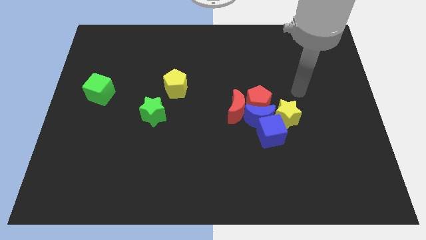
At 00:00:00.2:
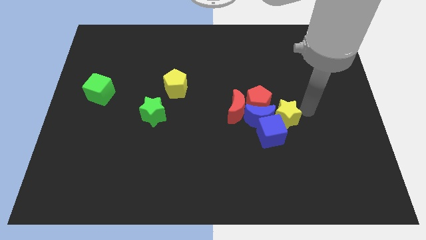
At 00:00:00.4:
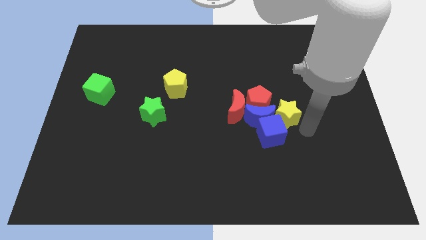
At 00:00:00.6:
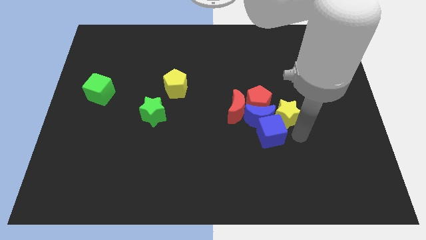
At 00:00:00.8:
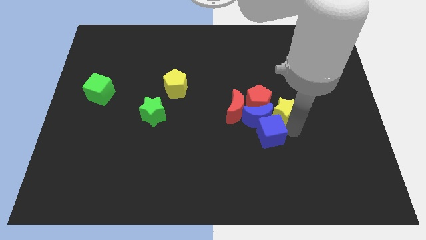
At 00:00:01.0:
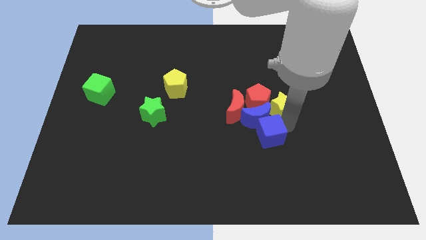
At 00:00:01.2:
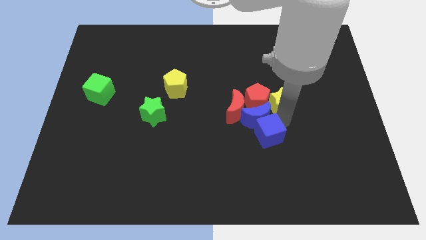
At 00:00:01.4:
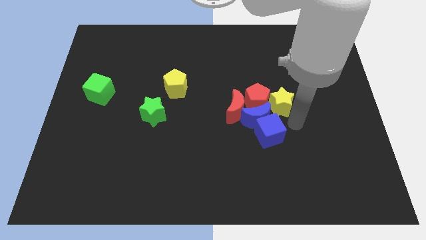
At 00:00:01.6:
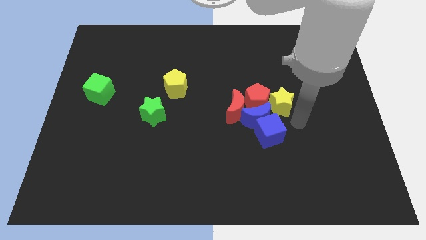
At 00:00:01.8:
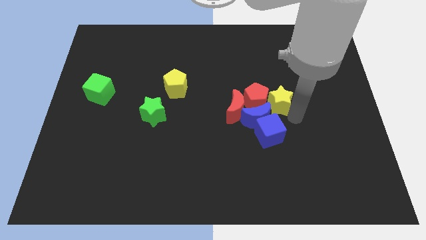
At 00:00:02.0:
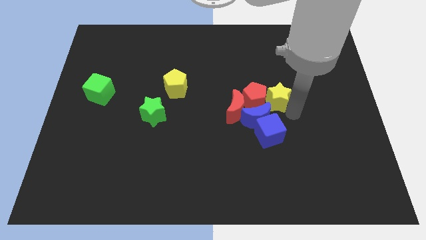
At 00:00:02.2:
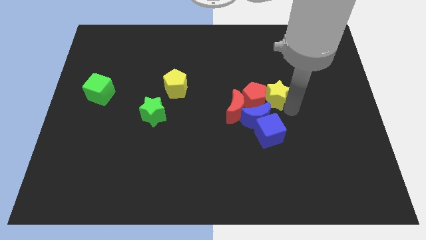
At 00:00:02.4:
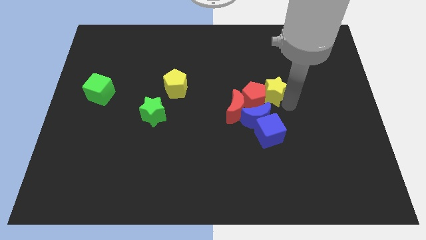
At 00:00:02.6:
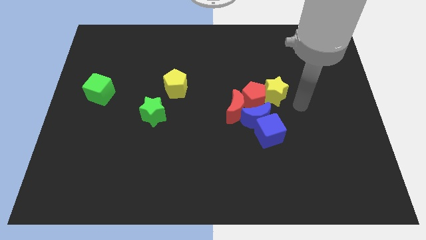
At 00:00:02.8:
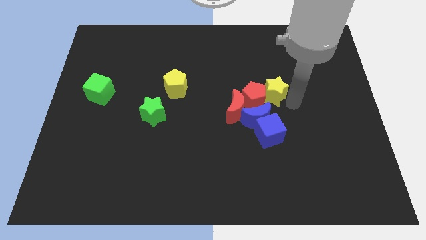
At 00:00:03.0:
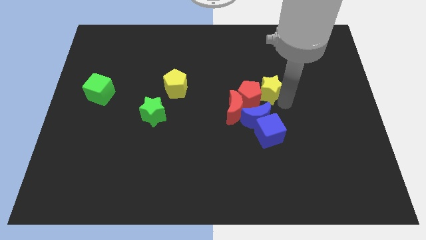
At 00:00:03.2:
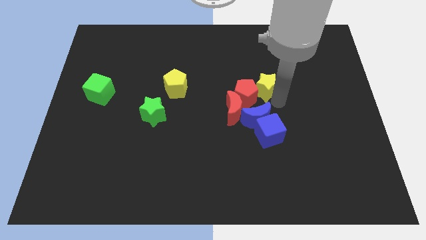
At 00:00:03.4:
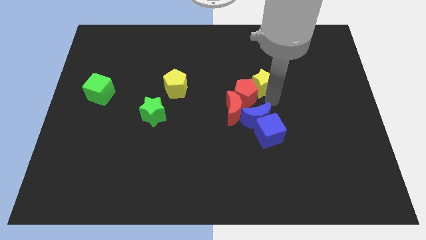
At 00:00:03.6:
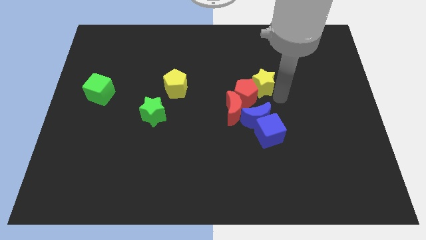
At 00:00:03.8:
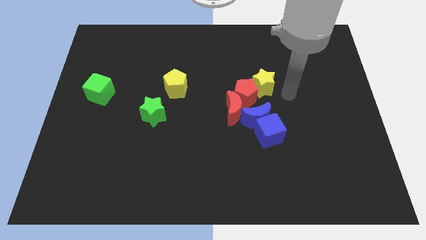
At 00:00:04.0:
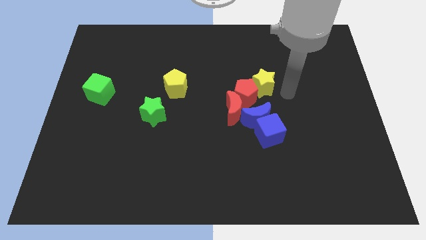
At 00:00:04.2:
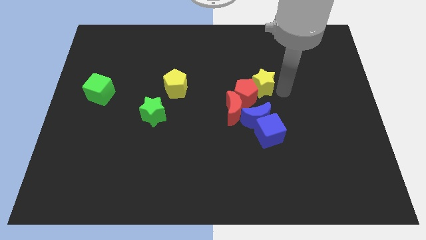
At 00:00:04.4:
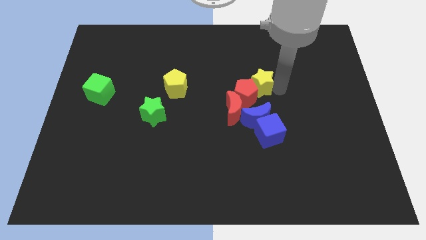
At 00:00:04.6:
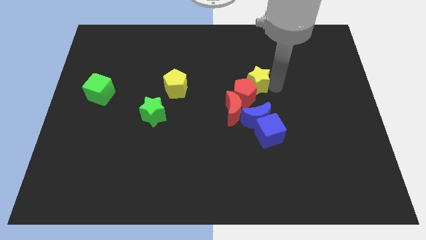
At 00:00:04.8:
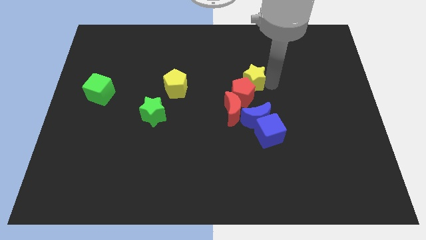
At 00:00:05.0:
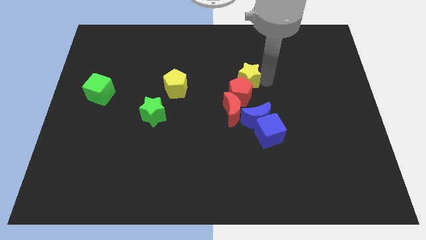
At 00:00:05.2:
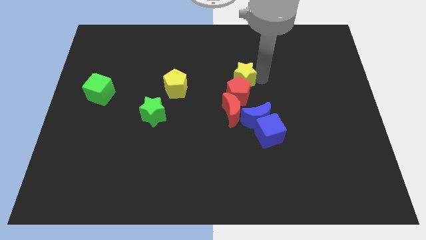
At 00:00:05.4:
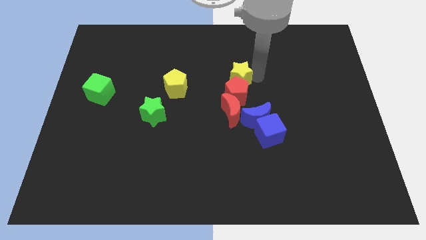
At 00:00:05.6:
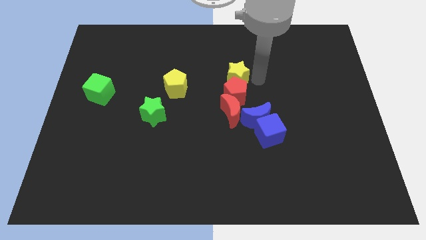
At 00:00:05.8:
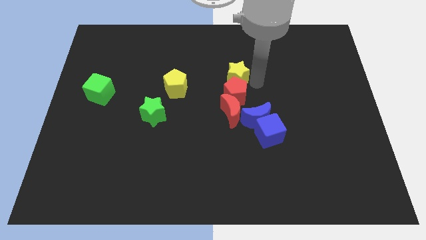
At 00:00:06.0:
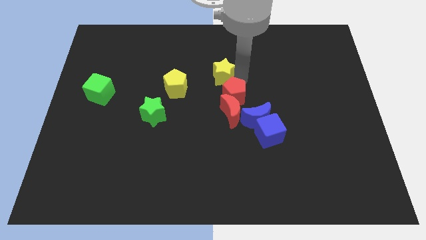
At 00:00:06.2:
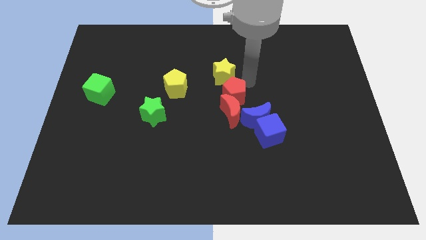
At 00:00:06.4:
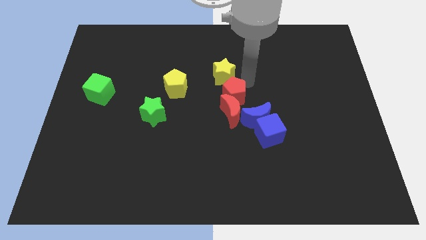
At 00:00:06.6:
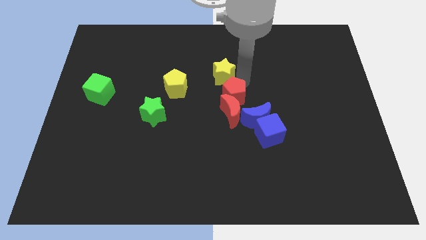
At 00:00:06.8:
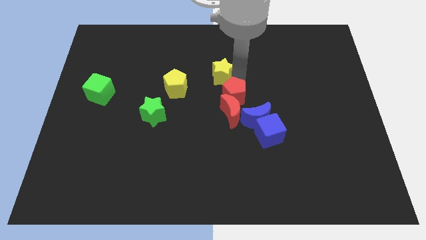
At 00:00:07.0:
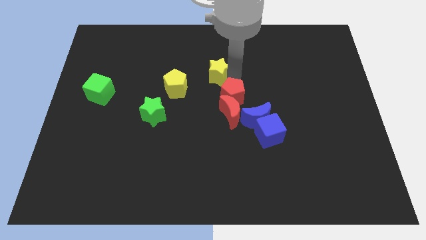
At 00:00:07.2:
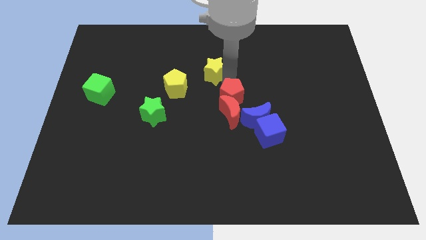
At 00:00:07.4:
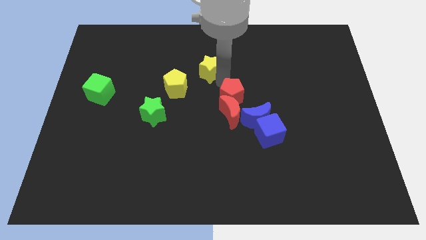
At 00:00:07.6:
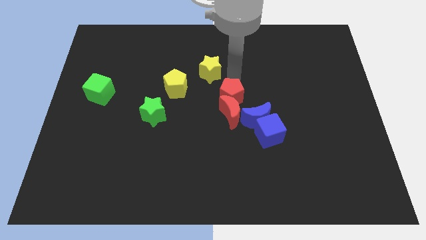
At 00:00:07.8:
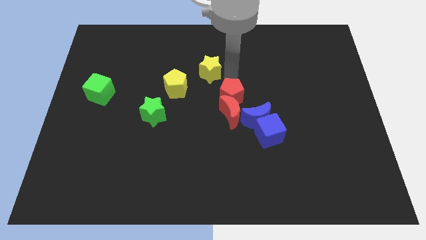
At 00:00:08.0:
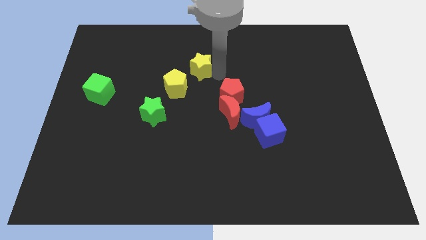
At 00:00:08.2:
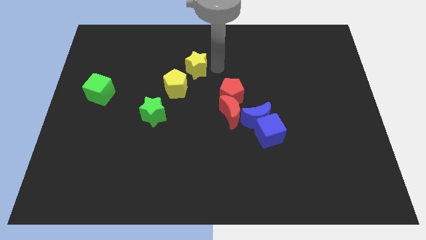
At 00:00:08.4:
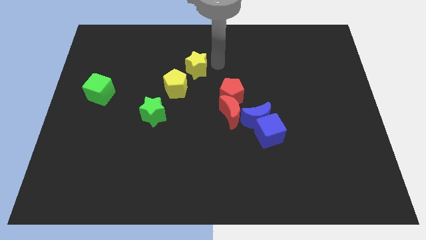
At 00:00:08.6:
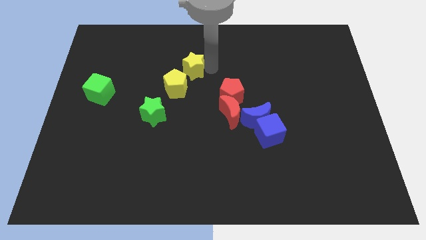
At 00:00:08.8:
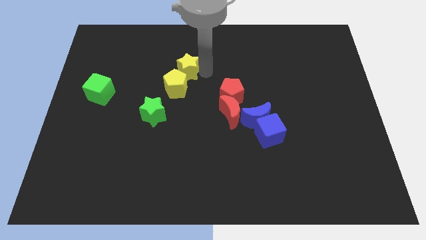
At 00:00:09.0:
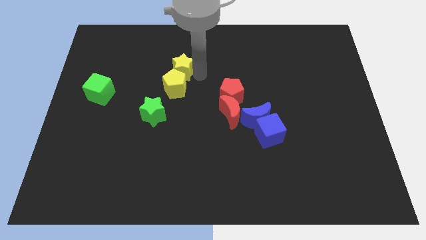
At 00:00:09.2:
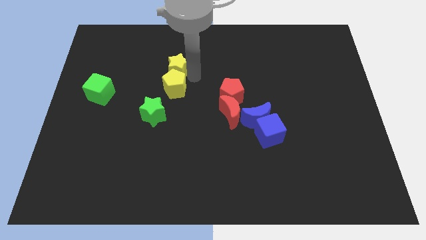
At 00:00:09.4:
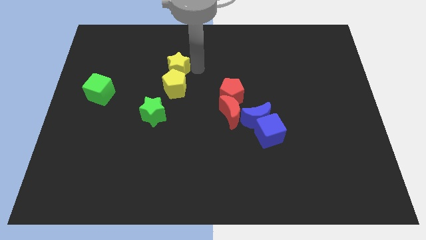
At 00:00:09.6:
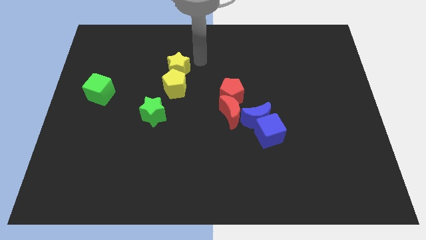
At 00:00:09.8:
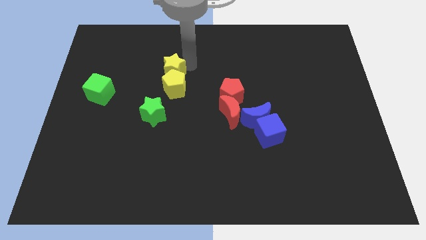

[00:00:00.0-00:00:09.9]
push the yellow star above the green star

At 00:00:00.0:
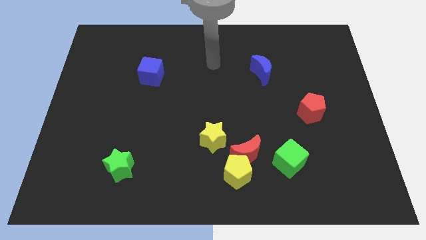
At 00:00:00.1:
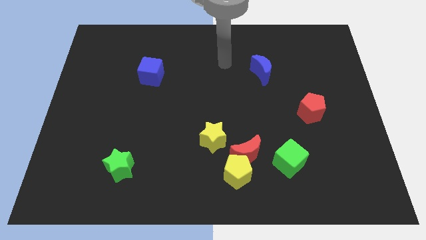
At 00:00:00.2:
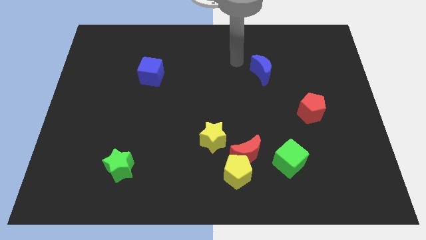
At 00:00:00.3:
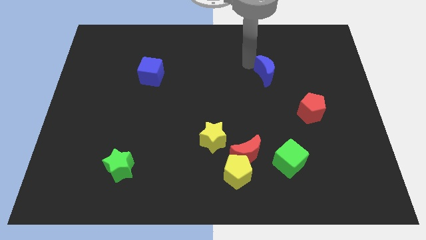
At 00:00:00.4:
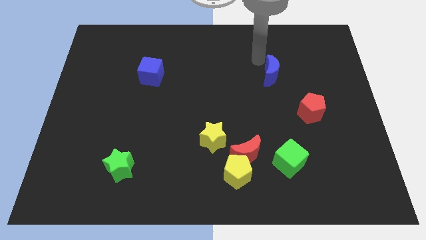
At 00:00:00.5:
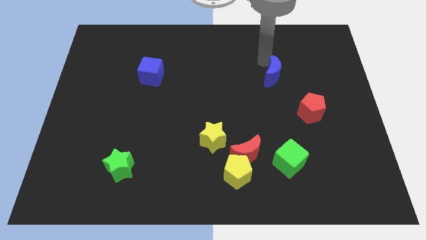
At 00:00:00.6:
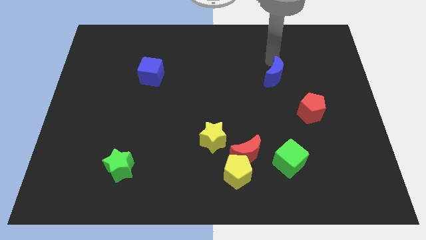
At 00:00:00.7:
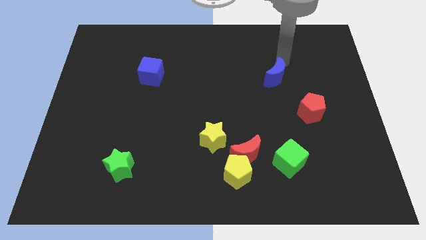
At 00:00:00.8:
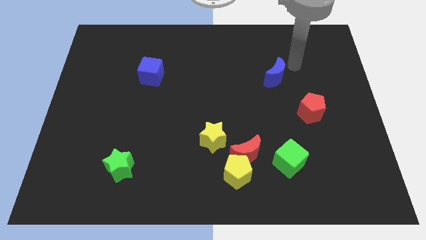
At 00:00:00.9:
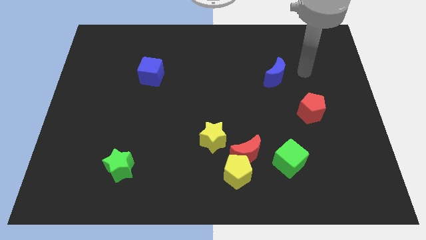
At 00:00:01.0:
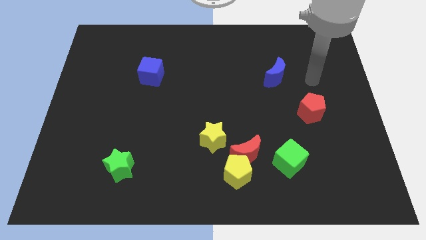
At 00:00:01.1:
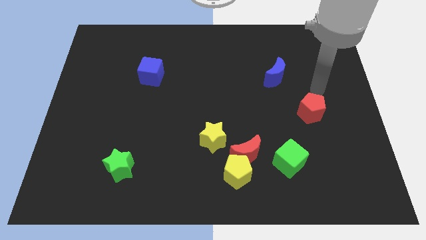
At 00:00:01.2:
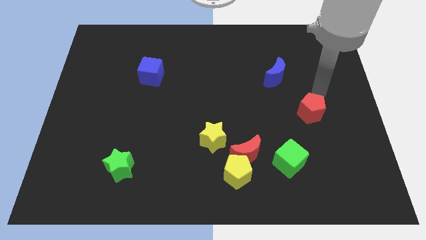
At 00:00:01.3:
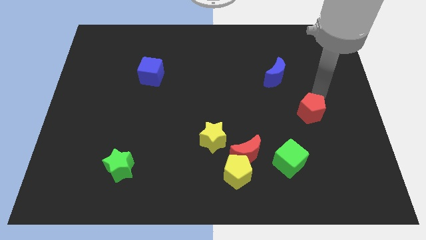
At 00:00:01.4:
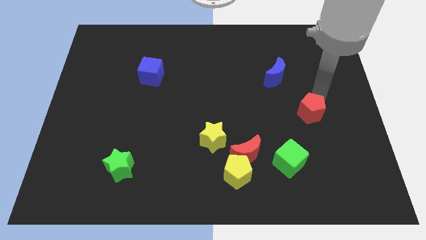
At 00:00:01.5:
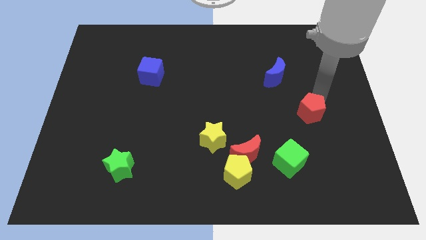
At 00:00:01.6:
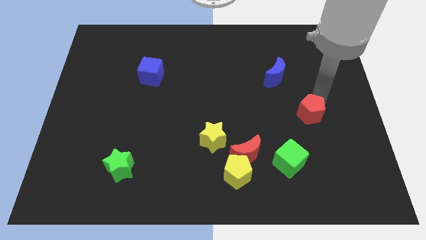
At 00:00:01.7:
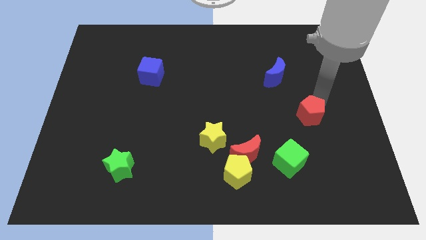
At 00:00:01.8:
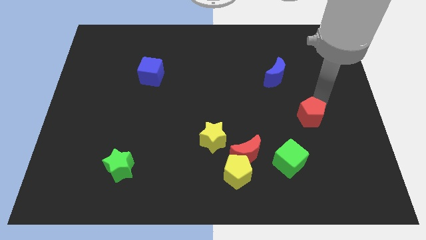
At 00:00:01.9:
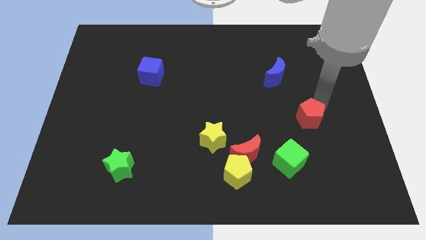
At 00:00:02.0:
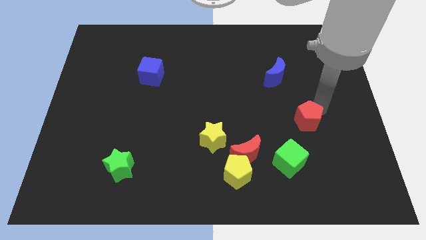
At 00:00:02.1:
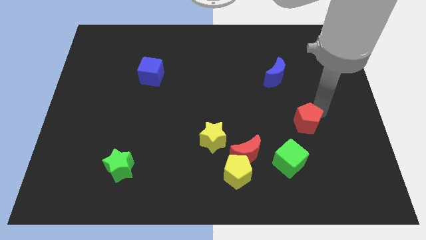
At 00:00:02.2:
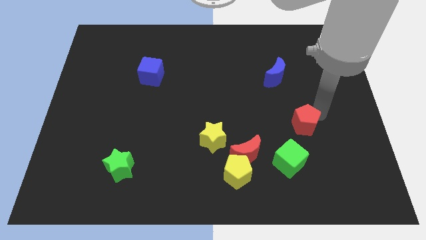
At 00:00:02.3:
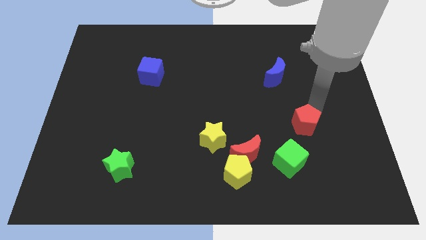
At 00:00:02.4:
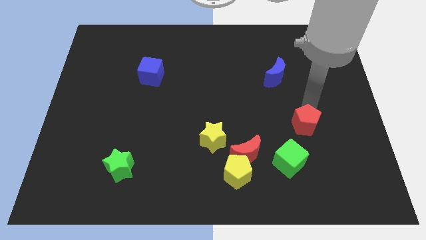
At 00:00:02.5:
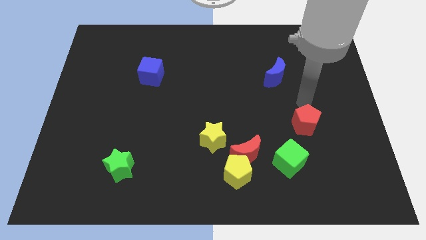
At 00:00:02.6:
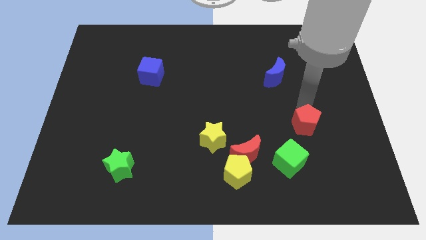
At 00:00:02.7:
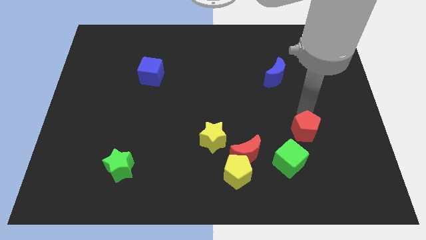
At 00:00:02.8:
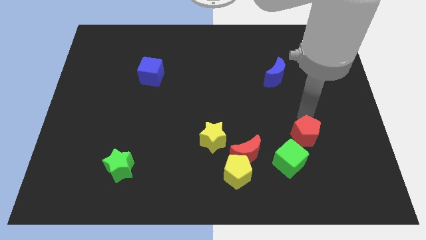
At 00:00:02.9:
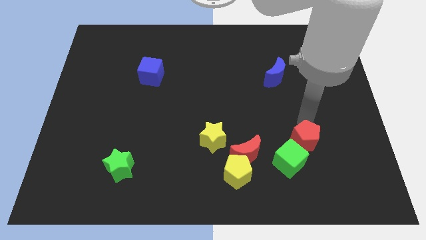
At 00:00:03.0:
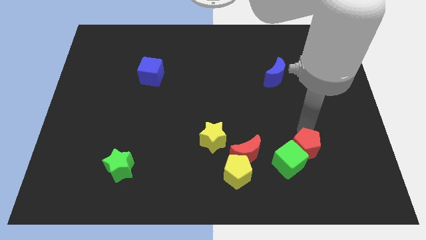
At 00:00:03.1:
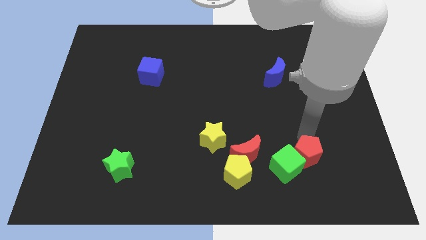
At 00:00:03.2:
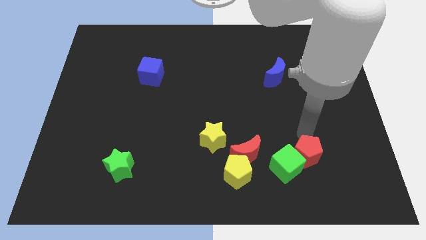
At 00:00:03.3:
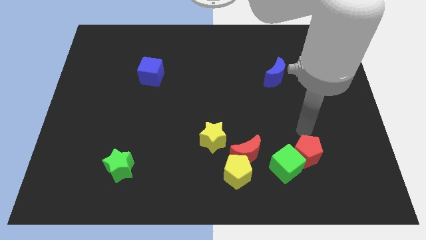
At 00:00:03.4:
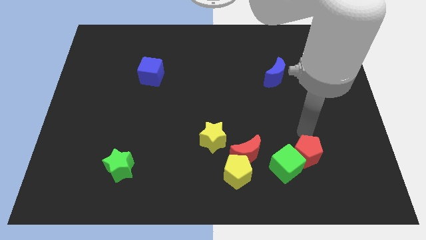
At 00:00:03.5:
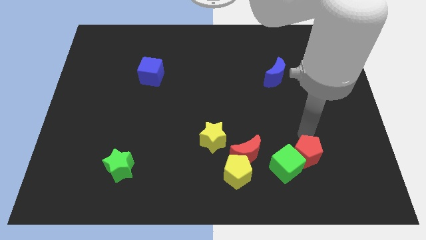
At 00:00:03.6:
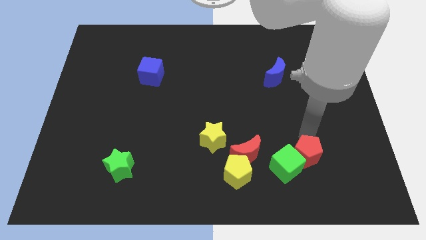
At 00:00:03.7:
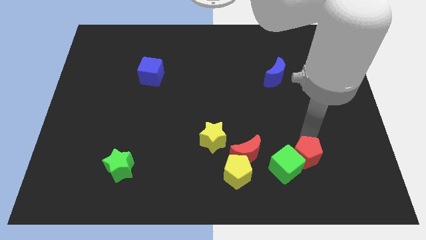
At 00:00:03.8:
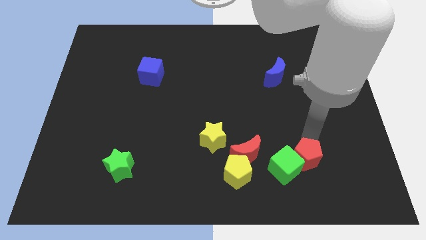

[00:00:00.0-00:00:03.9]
put the red pentagon to the right of the yellow pentagon
